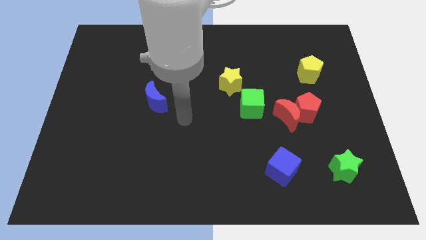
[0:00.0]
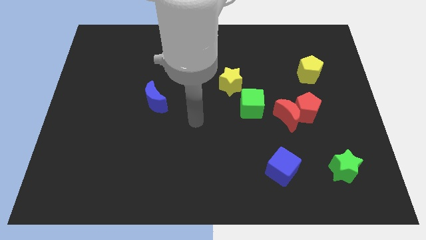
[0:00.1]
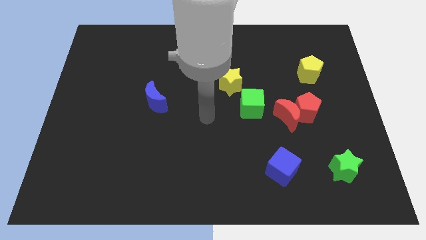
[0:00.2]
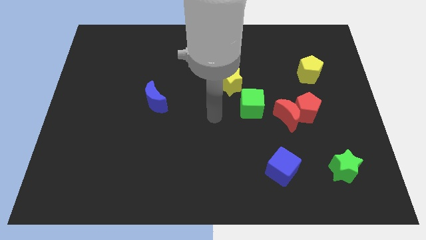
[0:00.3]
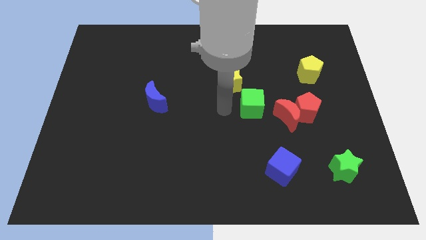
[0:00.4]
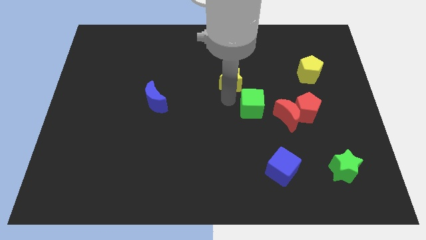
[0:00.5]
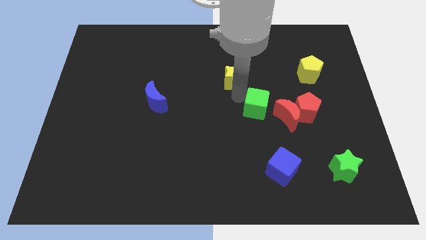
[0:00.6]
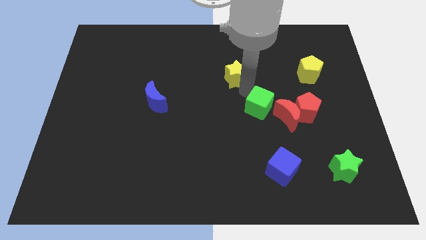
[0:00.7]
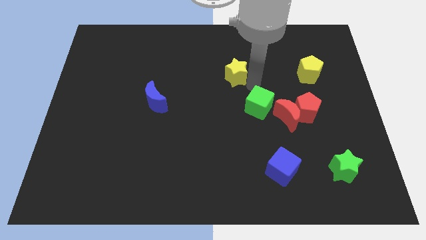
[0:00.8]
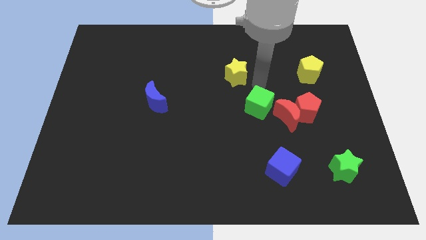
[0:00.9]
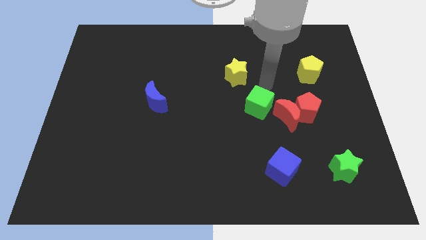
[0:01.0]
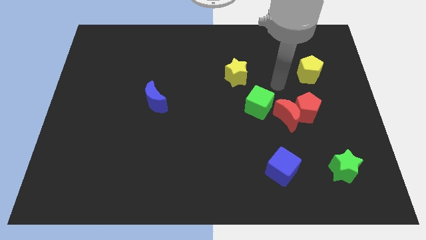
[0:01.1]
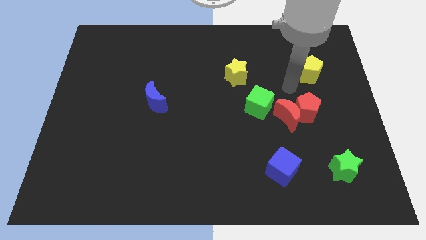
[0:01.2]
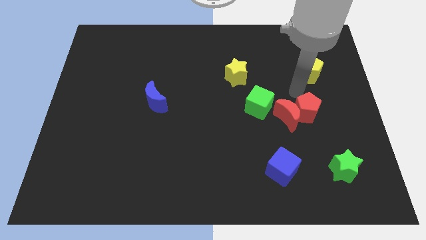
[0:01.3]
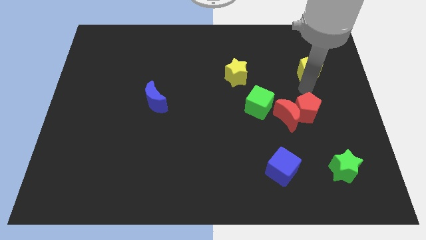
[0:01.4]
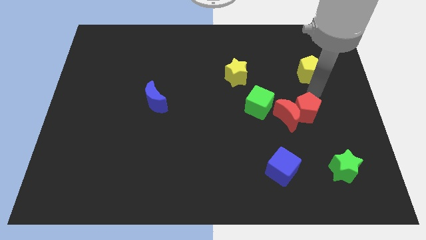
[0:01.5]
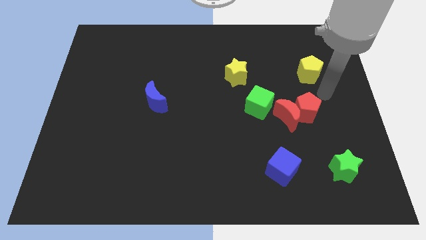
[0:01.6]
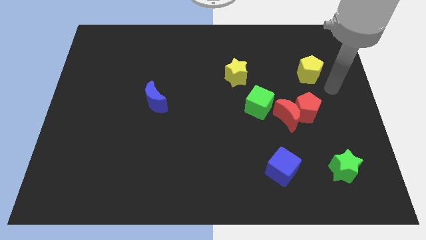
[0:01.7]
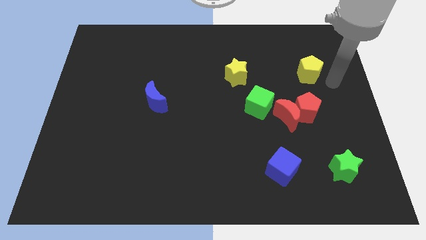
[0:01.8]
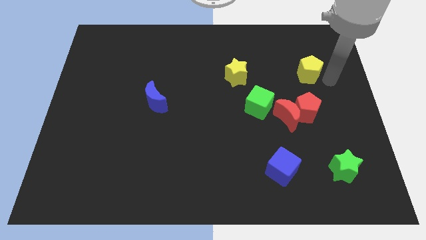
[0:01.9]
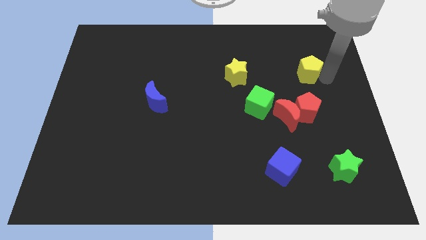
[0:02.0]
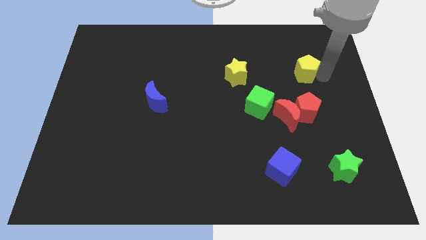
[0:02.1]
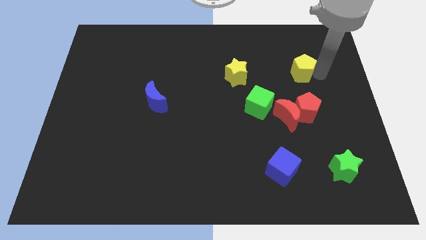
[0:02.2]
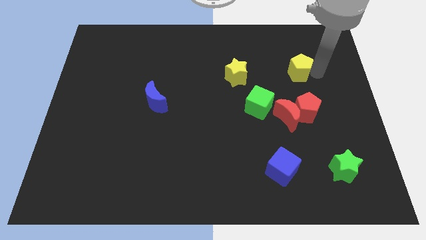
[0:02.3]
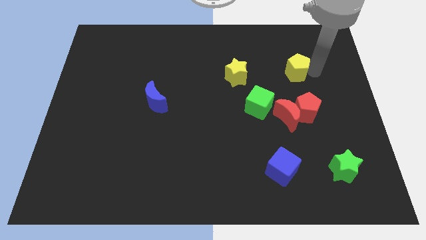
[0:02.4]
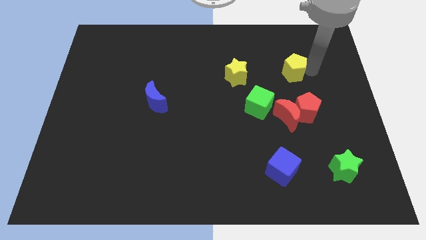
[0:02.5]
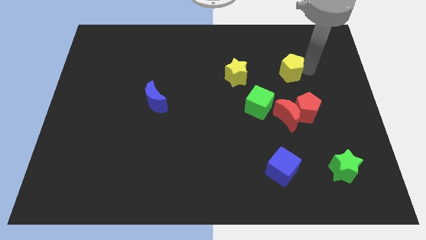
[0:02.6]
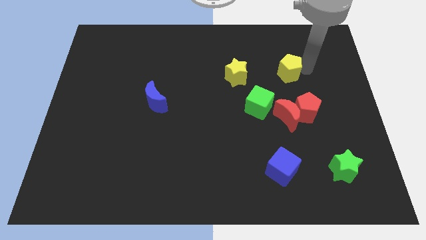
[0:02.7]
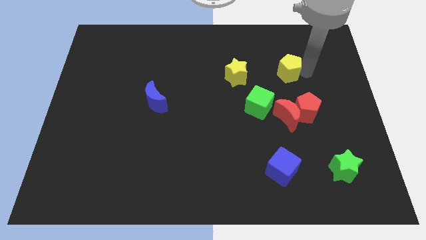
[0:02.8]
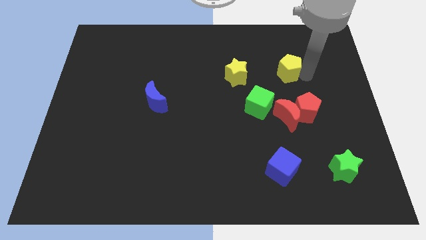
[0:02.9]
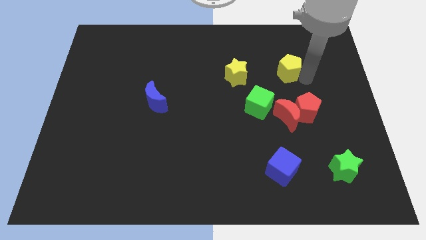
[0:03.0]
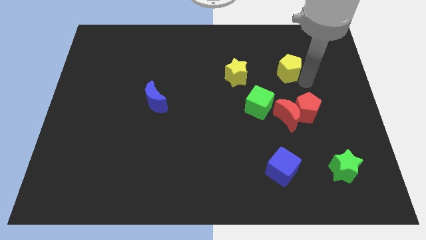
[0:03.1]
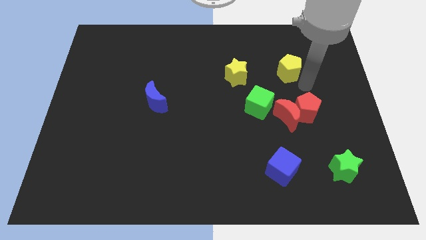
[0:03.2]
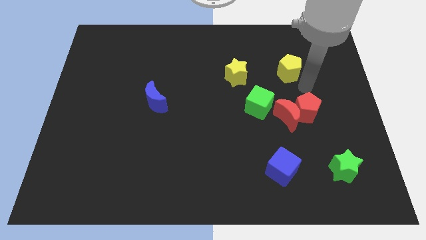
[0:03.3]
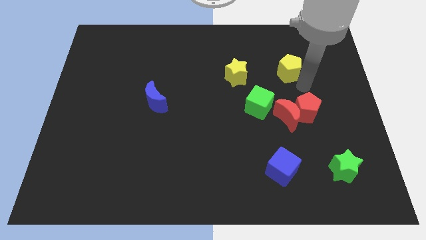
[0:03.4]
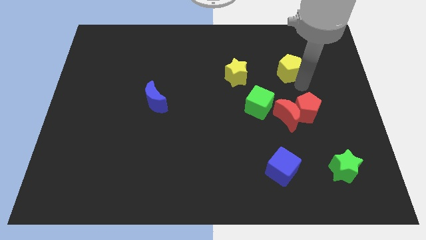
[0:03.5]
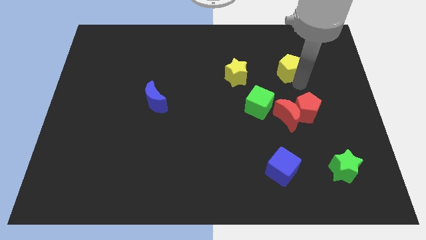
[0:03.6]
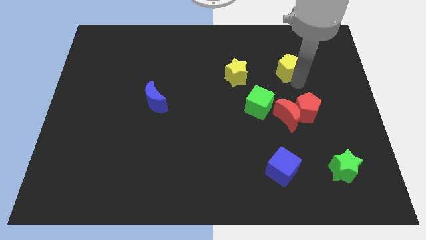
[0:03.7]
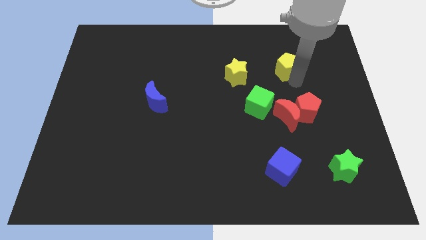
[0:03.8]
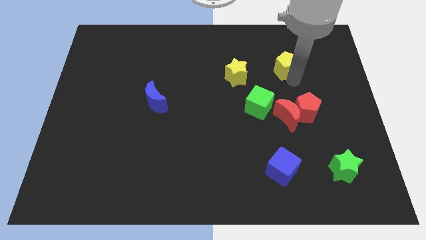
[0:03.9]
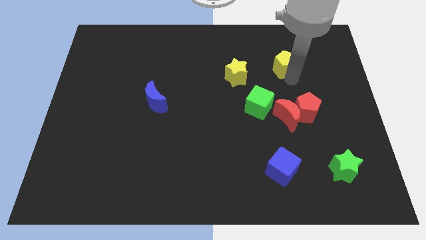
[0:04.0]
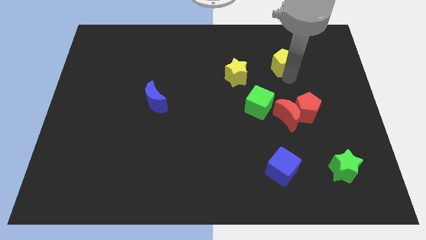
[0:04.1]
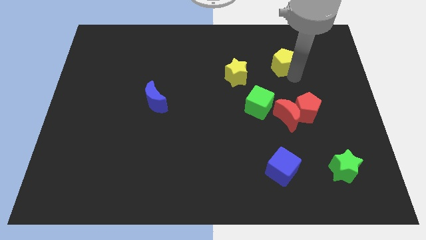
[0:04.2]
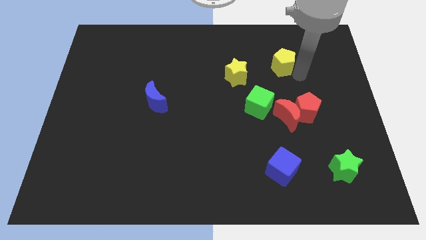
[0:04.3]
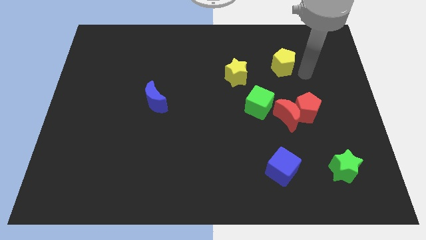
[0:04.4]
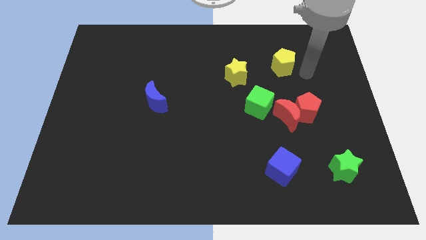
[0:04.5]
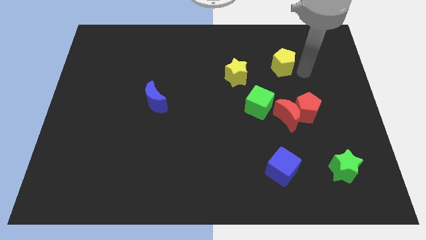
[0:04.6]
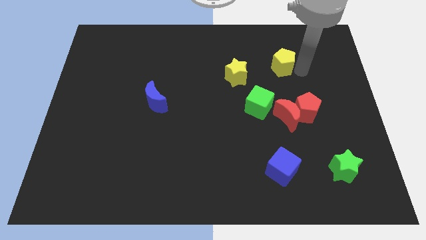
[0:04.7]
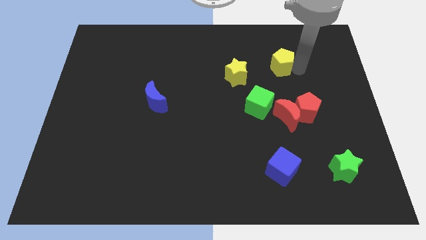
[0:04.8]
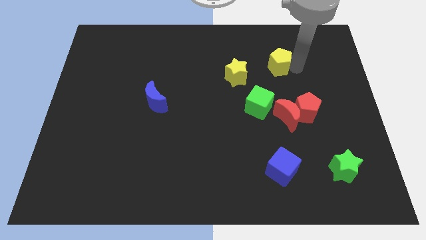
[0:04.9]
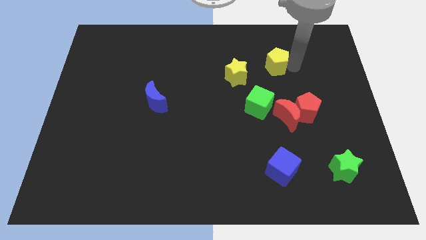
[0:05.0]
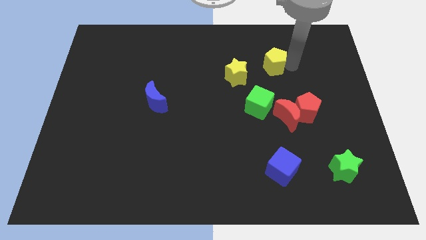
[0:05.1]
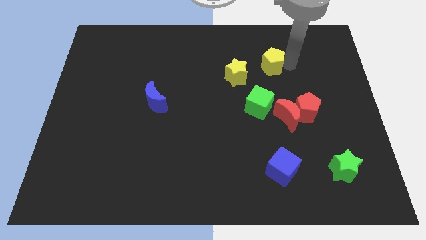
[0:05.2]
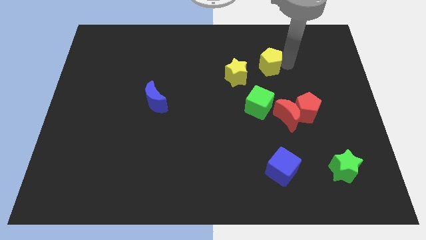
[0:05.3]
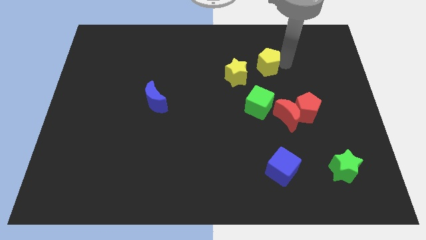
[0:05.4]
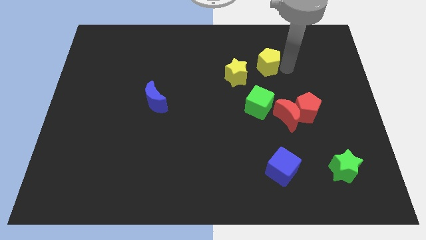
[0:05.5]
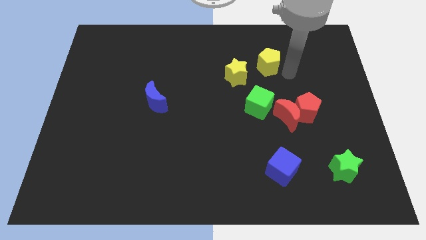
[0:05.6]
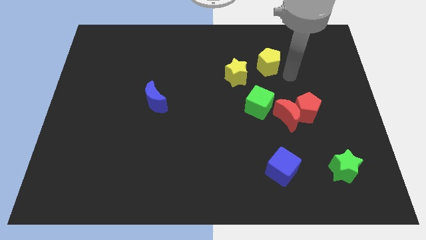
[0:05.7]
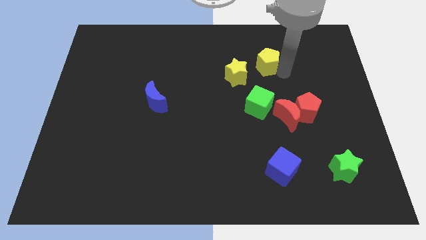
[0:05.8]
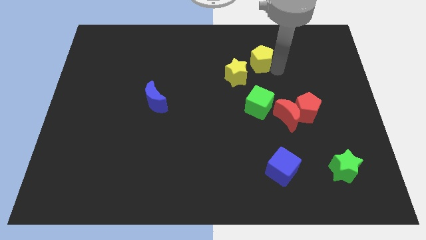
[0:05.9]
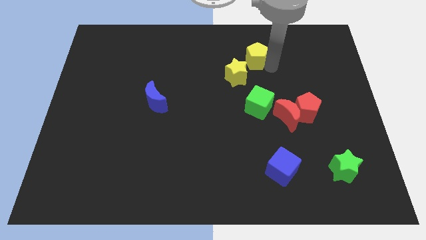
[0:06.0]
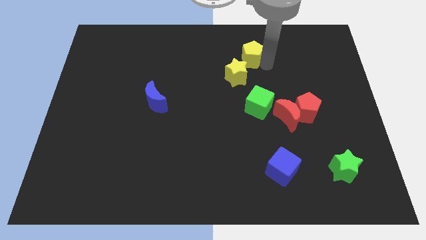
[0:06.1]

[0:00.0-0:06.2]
push the yellow pentagon to the top of the yellow star
